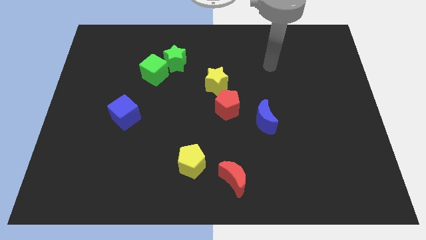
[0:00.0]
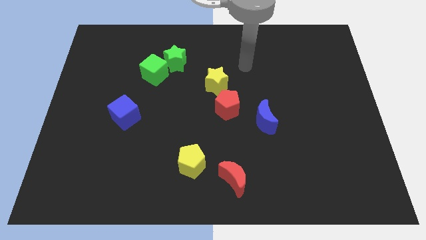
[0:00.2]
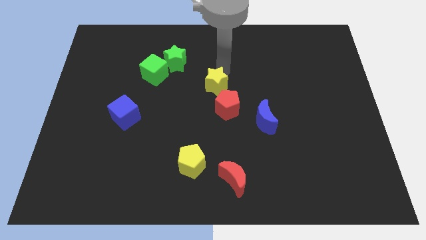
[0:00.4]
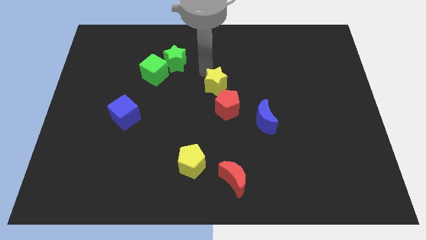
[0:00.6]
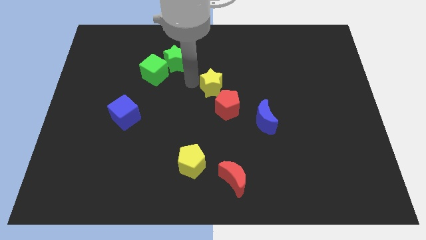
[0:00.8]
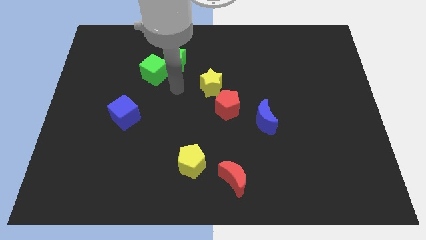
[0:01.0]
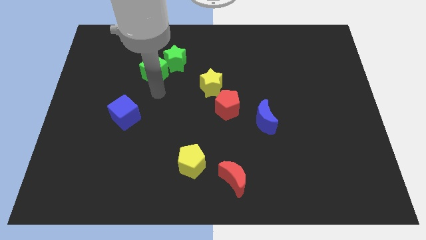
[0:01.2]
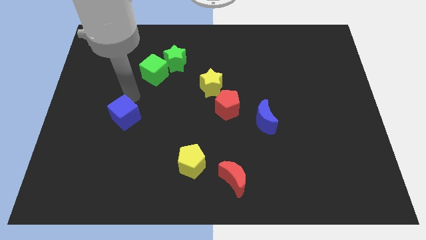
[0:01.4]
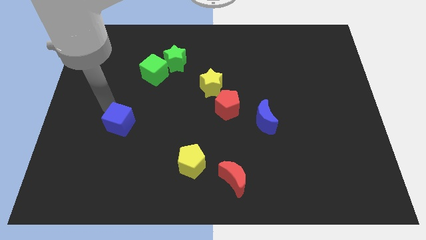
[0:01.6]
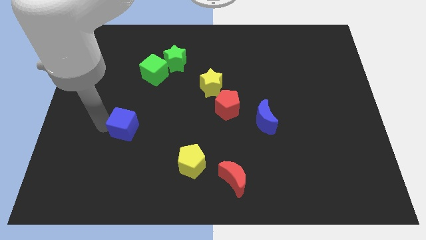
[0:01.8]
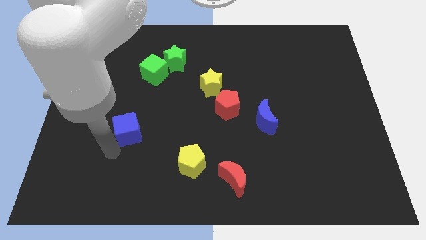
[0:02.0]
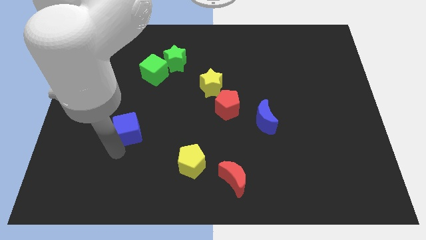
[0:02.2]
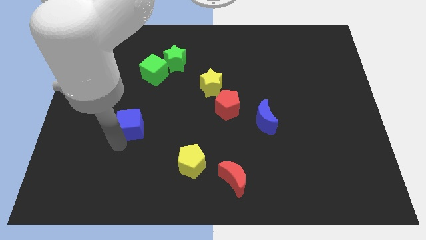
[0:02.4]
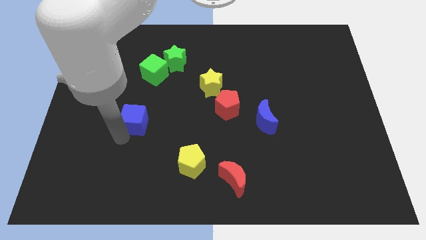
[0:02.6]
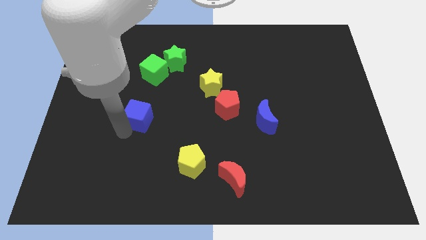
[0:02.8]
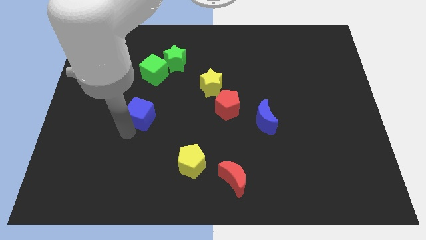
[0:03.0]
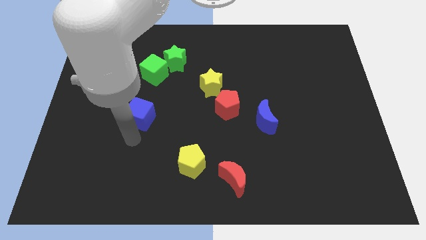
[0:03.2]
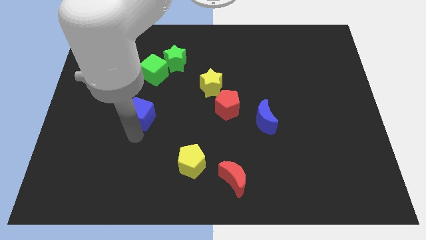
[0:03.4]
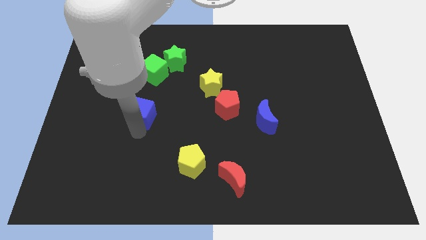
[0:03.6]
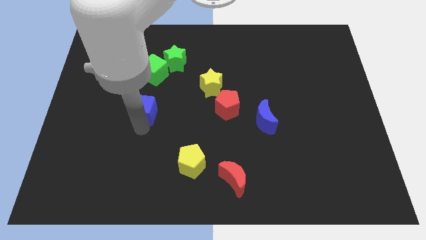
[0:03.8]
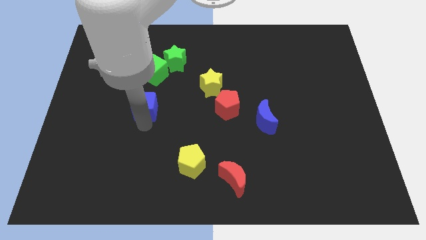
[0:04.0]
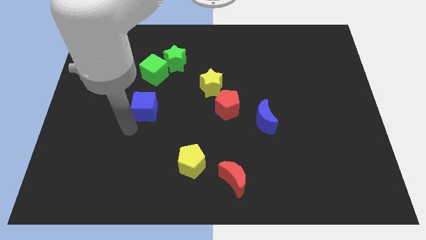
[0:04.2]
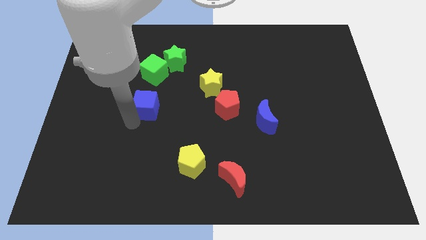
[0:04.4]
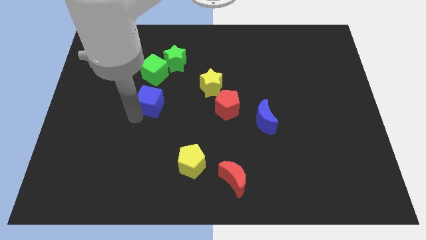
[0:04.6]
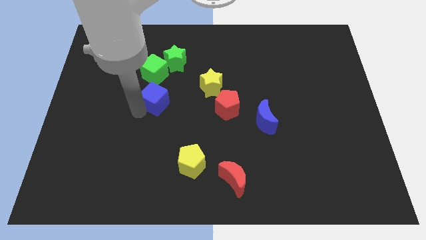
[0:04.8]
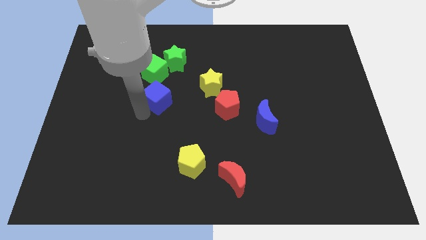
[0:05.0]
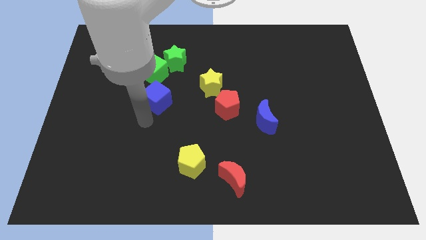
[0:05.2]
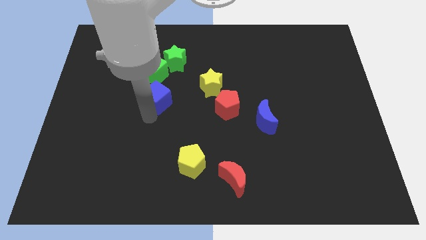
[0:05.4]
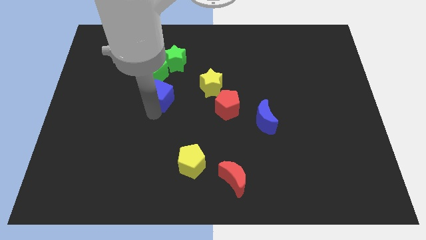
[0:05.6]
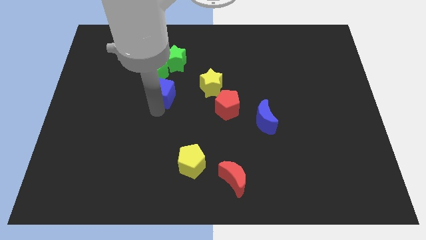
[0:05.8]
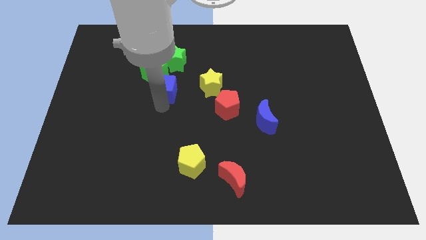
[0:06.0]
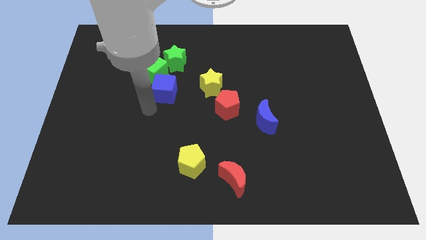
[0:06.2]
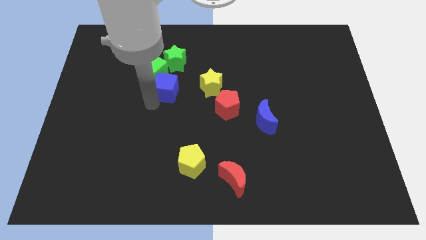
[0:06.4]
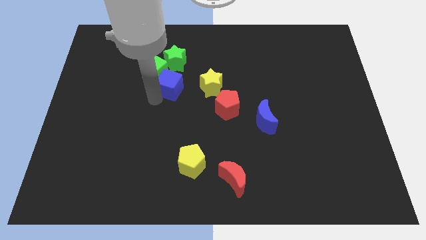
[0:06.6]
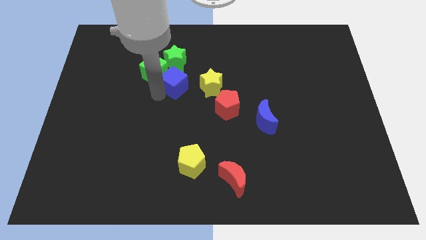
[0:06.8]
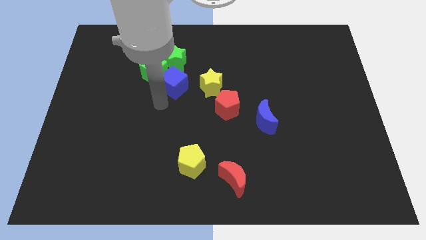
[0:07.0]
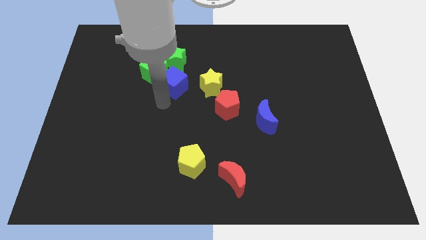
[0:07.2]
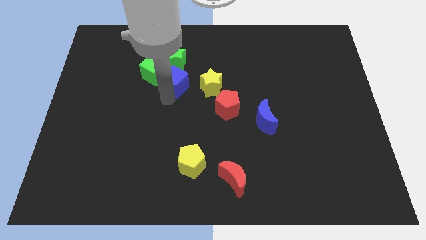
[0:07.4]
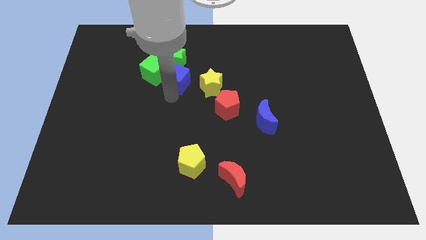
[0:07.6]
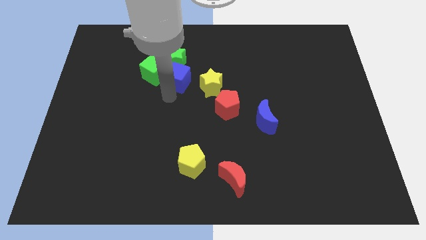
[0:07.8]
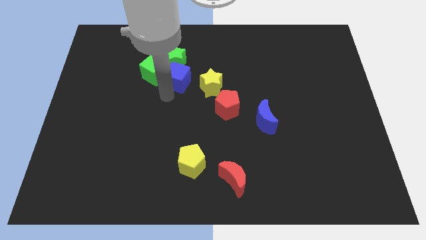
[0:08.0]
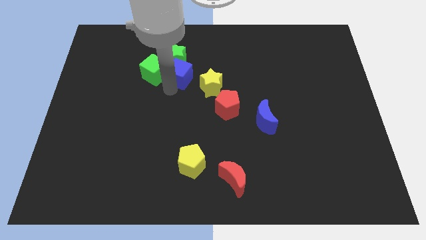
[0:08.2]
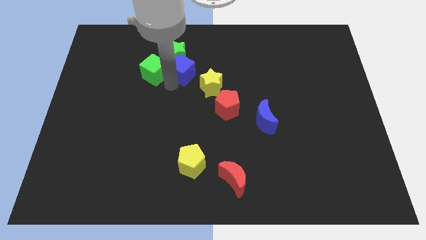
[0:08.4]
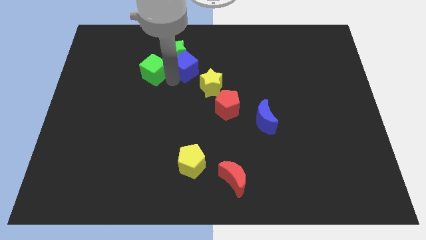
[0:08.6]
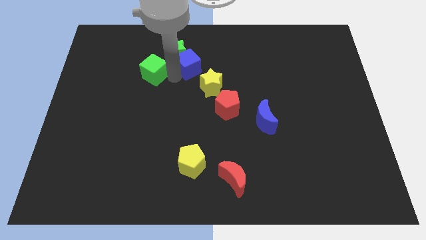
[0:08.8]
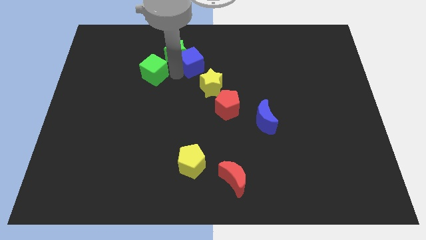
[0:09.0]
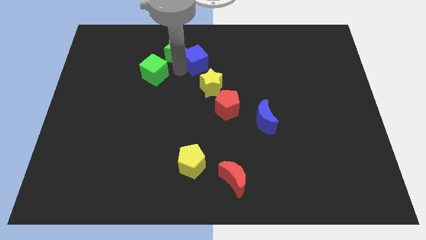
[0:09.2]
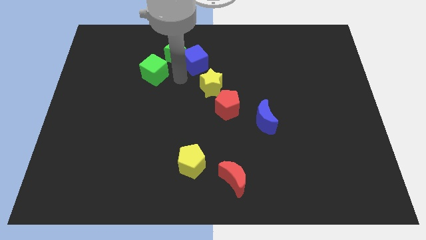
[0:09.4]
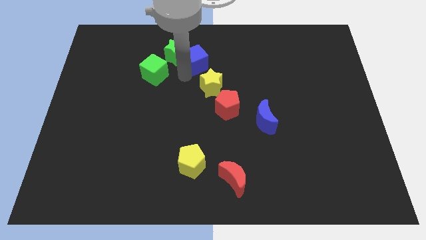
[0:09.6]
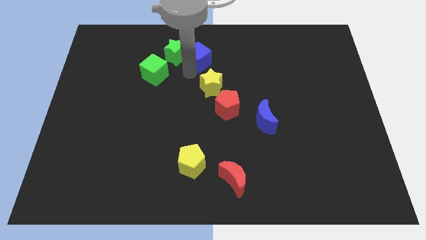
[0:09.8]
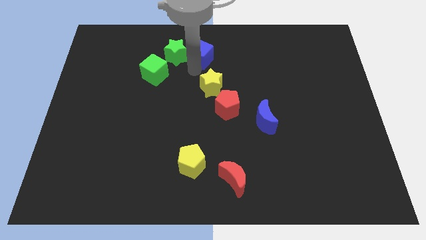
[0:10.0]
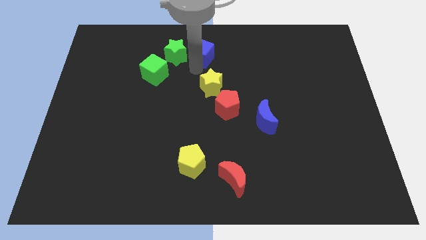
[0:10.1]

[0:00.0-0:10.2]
slide the blue cube to the top

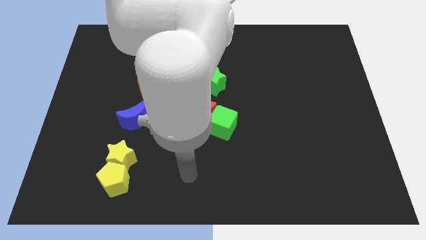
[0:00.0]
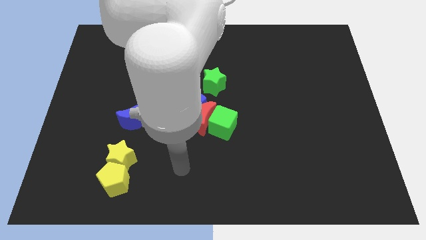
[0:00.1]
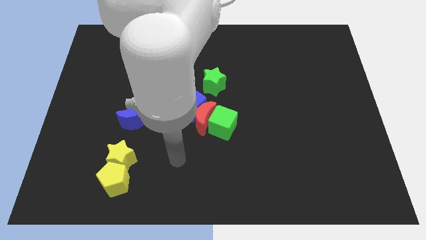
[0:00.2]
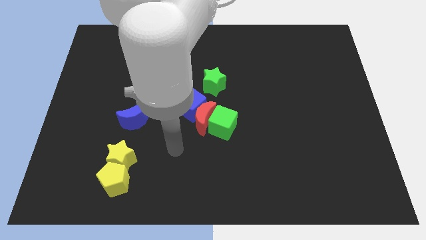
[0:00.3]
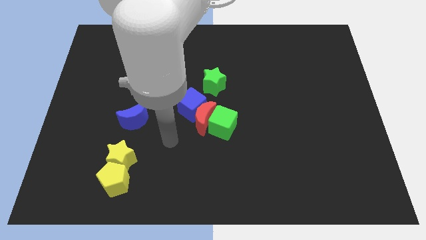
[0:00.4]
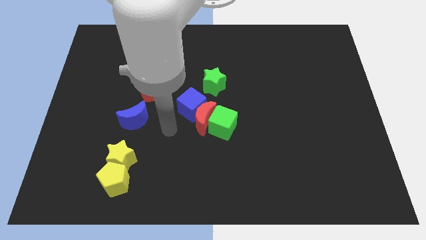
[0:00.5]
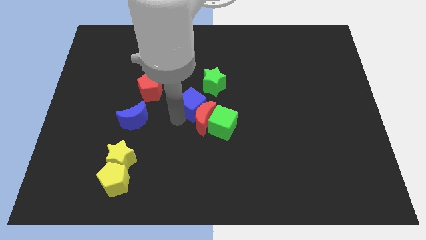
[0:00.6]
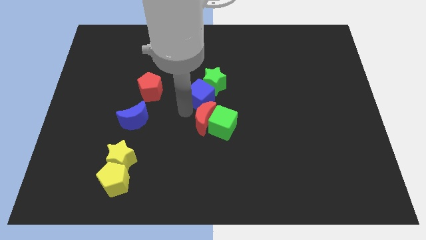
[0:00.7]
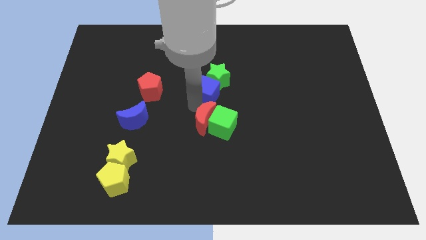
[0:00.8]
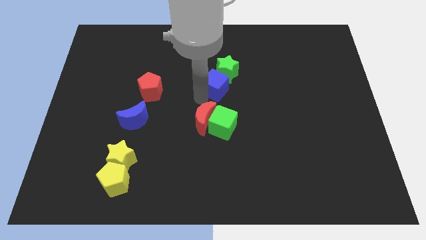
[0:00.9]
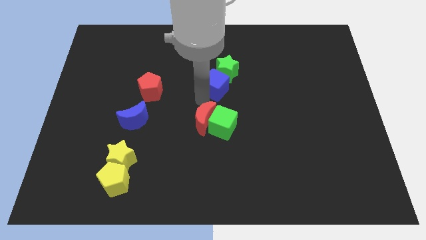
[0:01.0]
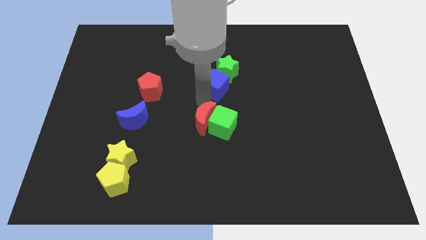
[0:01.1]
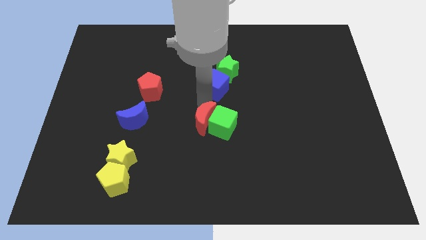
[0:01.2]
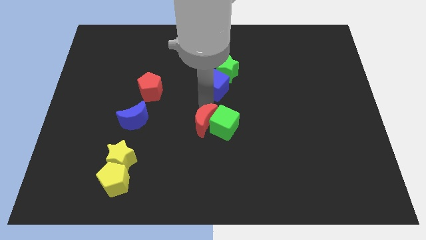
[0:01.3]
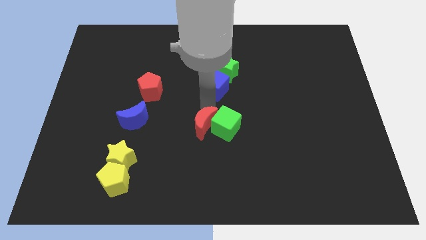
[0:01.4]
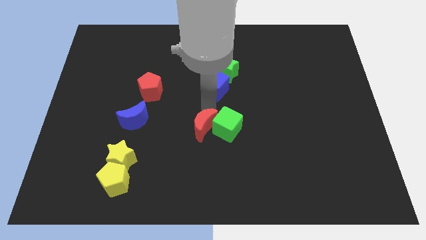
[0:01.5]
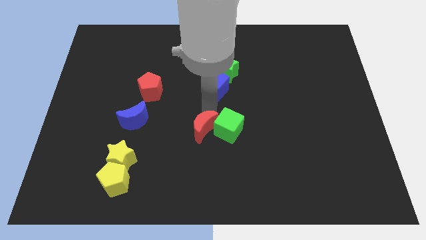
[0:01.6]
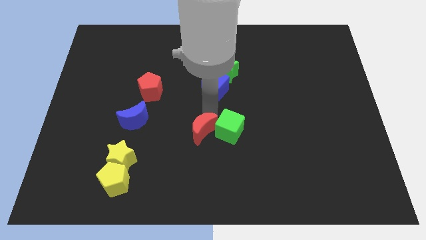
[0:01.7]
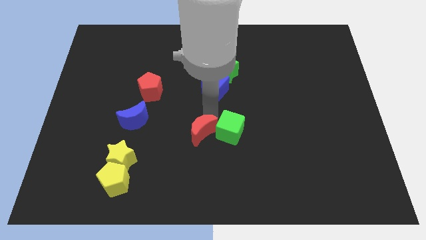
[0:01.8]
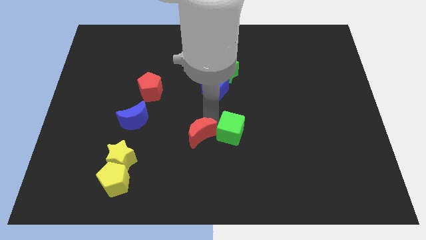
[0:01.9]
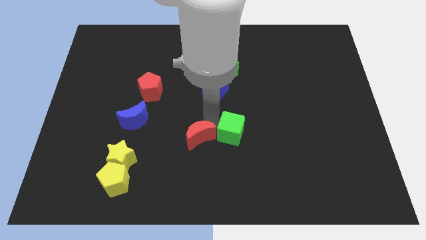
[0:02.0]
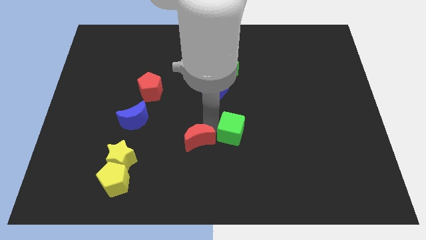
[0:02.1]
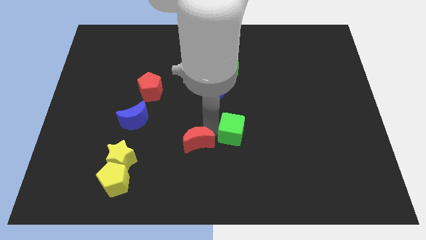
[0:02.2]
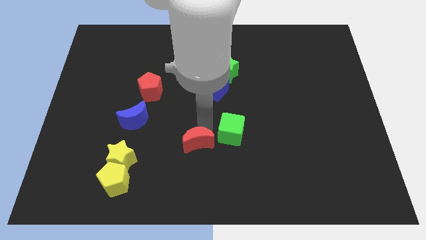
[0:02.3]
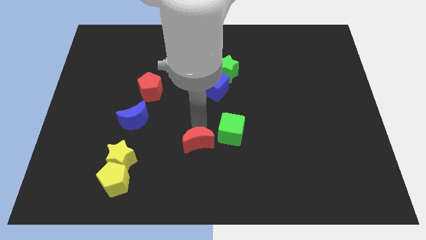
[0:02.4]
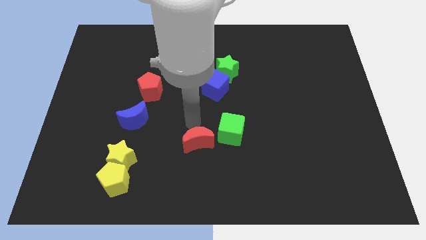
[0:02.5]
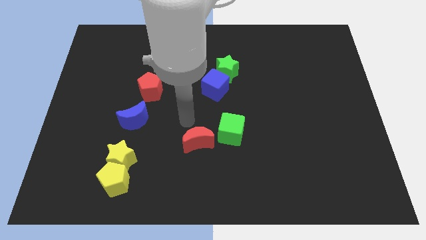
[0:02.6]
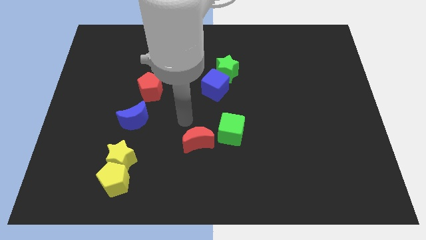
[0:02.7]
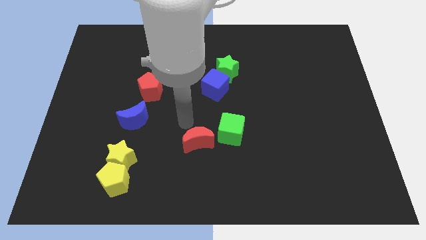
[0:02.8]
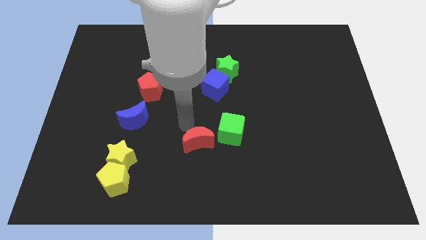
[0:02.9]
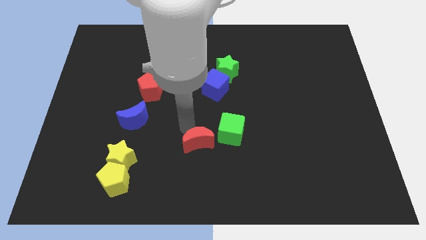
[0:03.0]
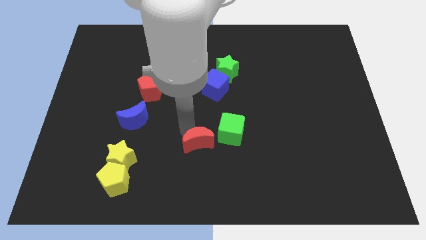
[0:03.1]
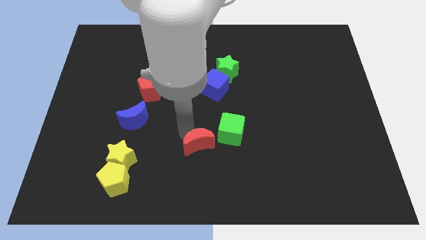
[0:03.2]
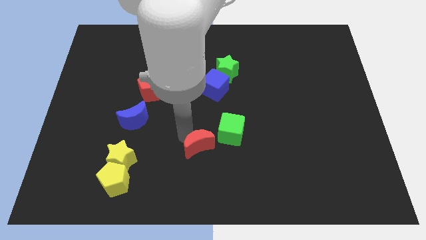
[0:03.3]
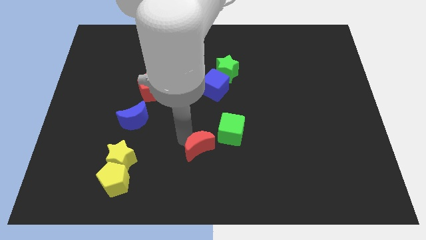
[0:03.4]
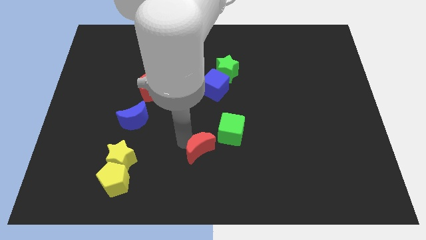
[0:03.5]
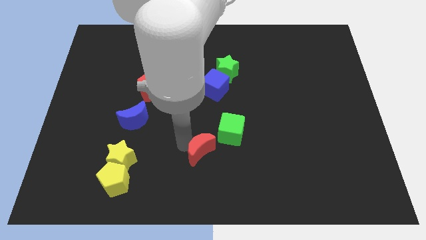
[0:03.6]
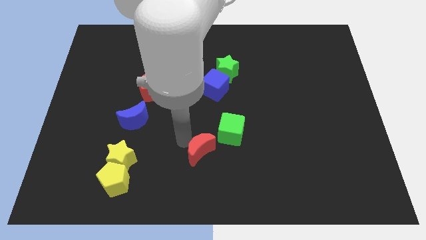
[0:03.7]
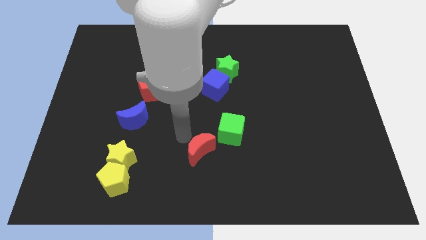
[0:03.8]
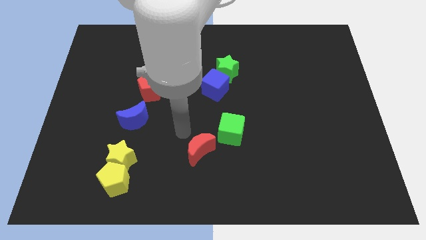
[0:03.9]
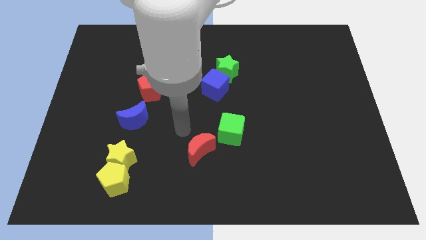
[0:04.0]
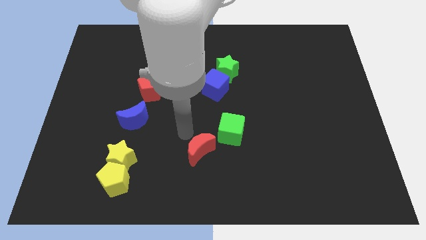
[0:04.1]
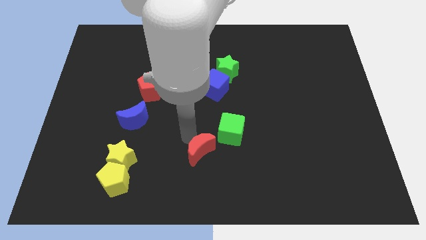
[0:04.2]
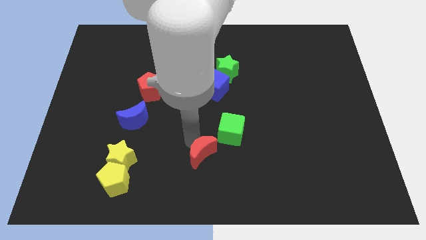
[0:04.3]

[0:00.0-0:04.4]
slide the red moon to the bottom
